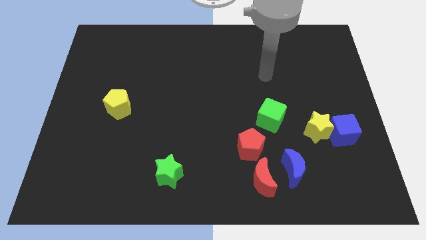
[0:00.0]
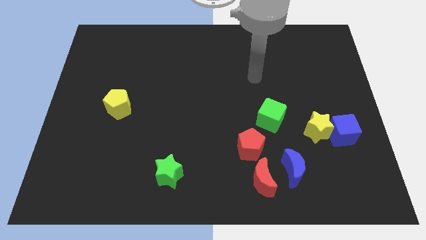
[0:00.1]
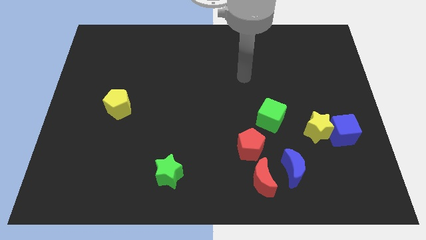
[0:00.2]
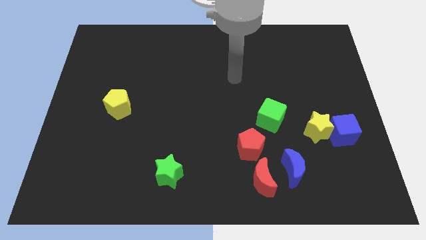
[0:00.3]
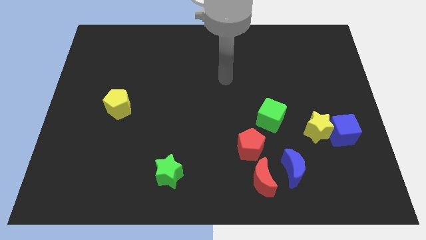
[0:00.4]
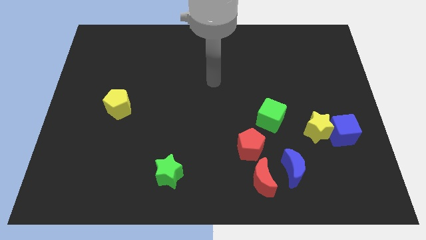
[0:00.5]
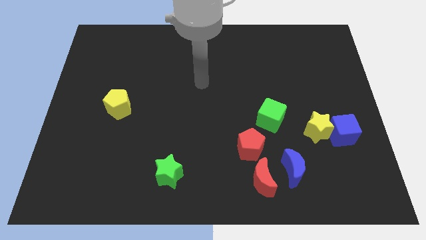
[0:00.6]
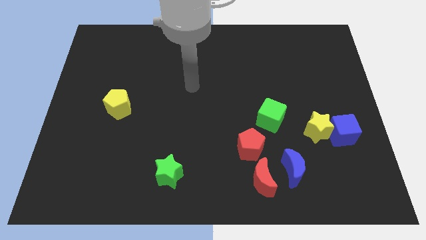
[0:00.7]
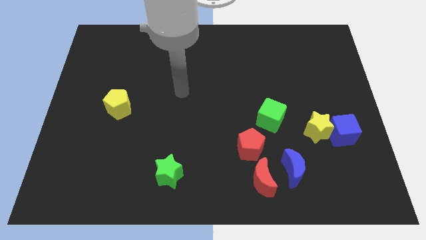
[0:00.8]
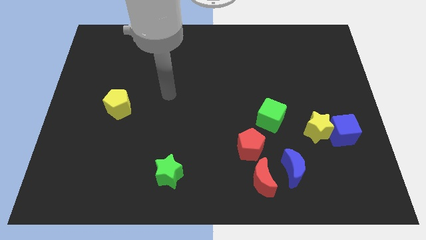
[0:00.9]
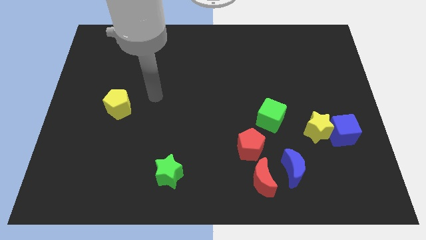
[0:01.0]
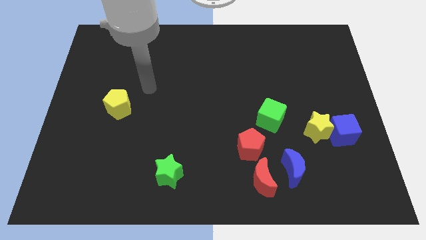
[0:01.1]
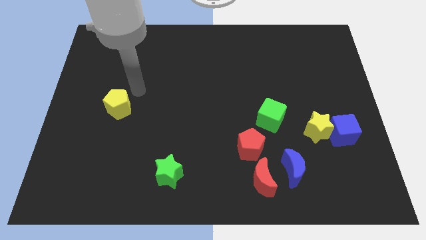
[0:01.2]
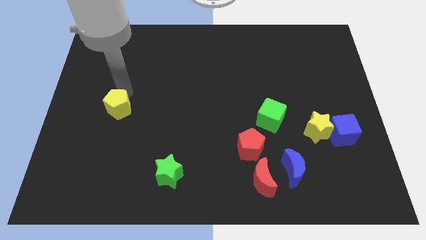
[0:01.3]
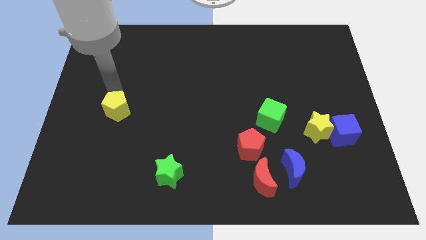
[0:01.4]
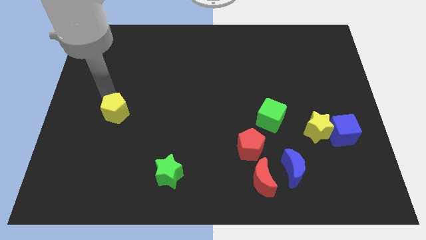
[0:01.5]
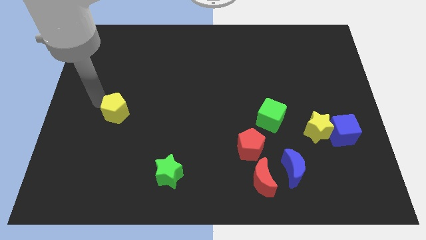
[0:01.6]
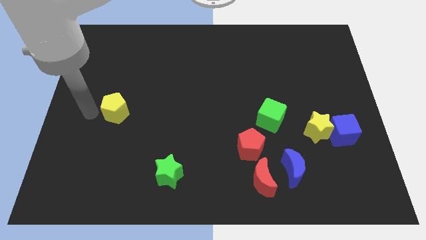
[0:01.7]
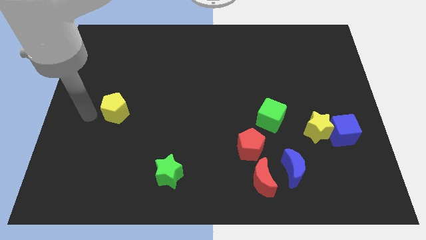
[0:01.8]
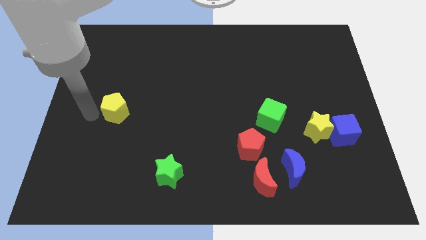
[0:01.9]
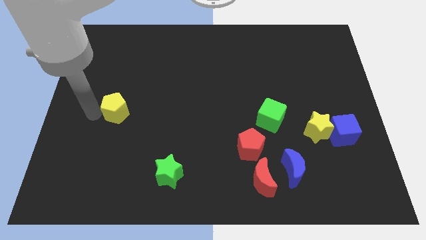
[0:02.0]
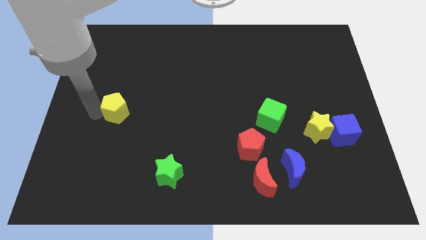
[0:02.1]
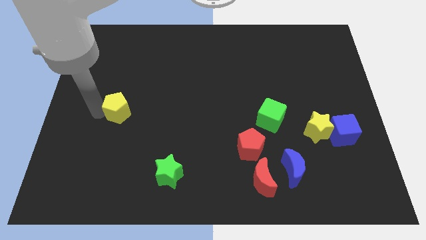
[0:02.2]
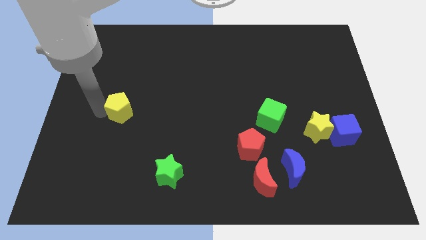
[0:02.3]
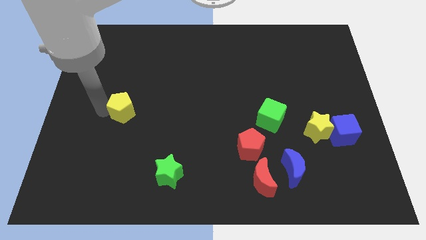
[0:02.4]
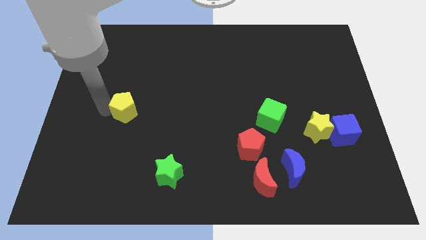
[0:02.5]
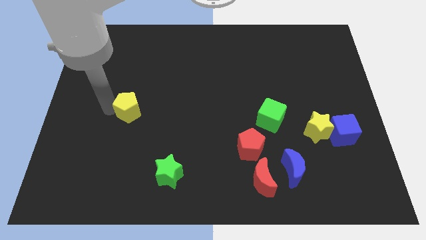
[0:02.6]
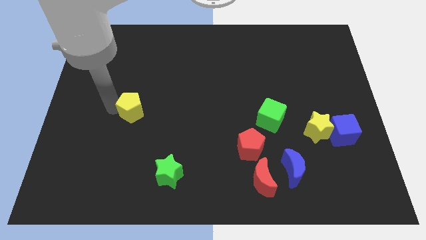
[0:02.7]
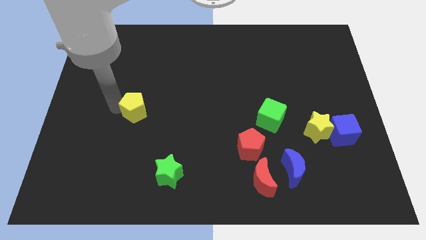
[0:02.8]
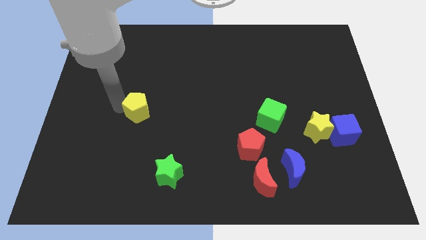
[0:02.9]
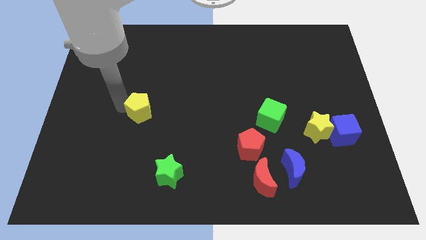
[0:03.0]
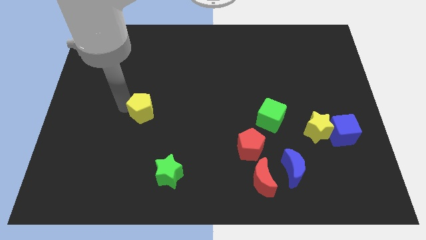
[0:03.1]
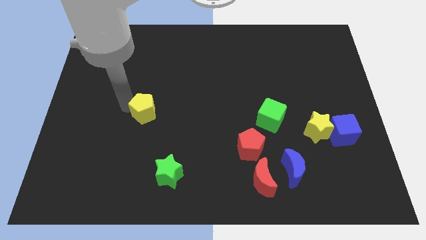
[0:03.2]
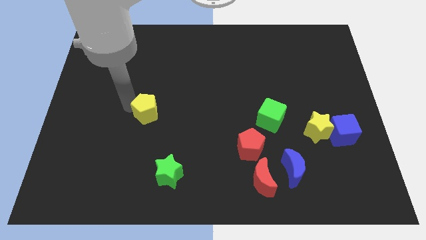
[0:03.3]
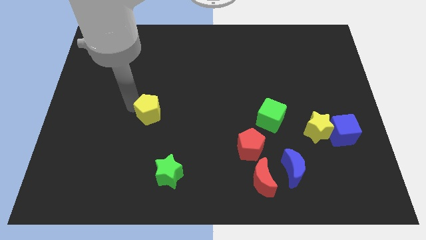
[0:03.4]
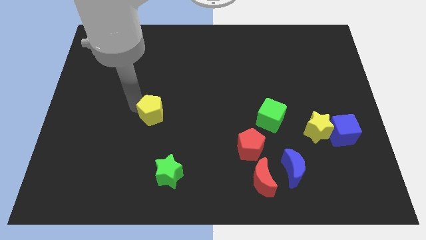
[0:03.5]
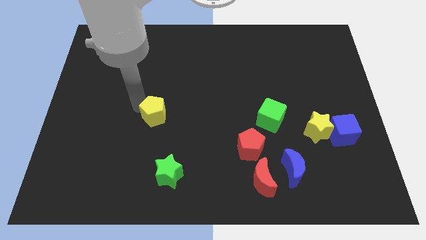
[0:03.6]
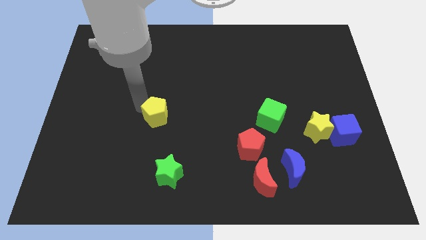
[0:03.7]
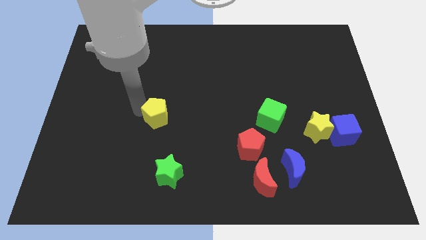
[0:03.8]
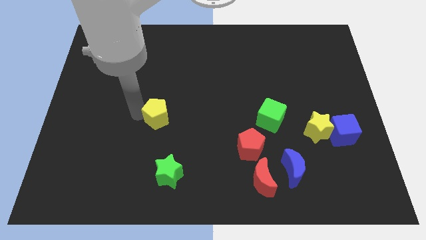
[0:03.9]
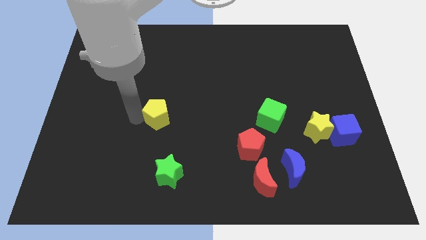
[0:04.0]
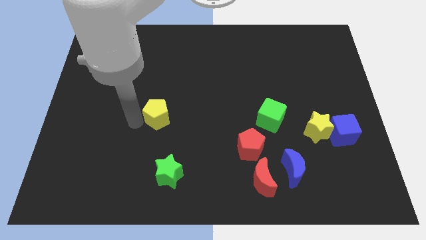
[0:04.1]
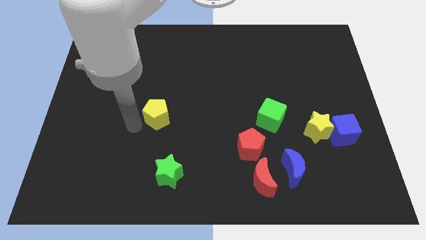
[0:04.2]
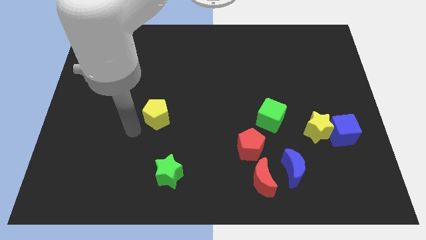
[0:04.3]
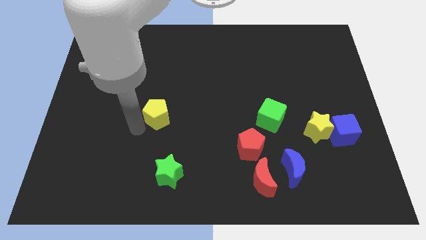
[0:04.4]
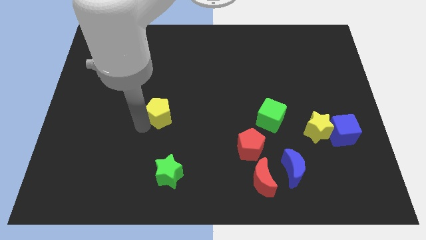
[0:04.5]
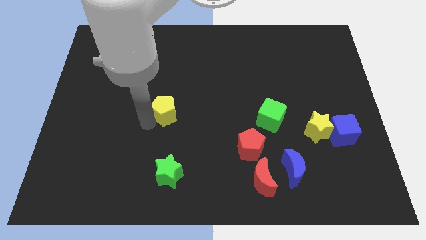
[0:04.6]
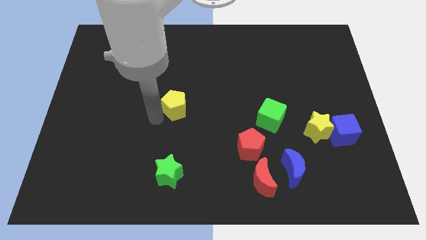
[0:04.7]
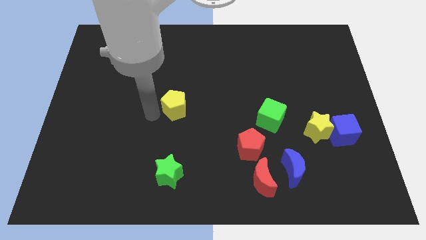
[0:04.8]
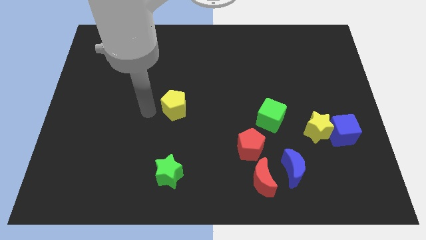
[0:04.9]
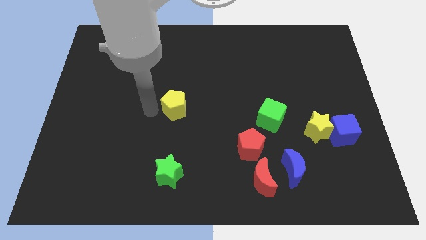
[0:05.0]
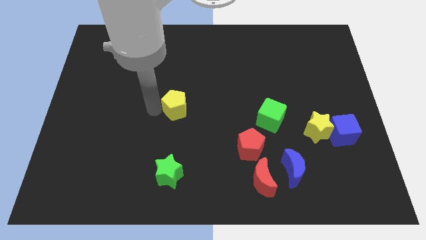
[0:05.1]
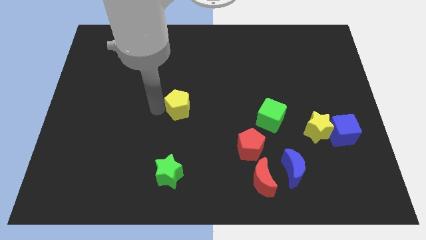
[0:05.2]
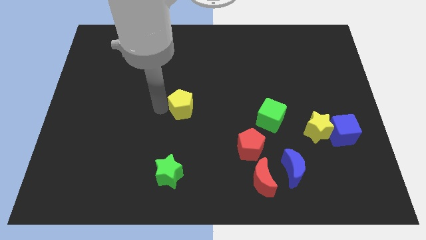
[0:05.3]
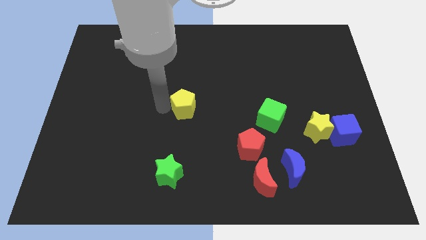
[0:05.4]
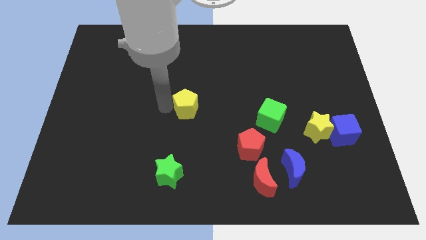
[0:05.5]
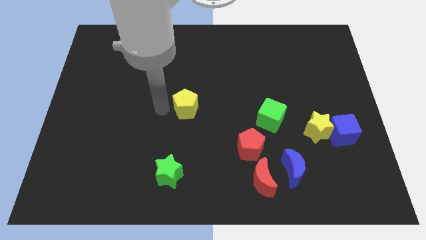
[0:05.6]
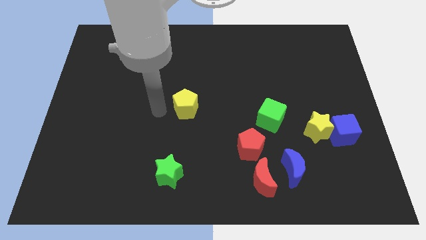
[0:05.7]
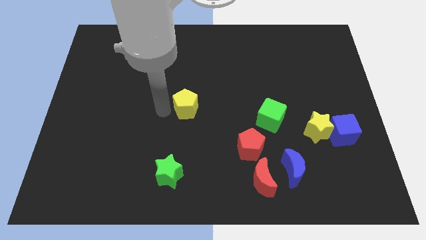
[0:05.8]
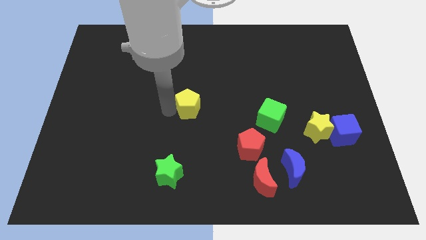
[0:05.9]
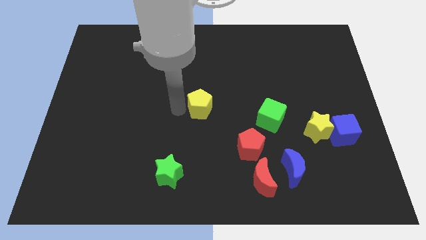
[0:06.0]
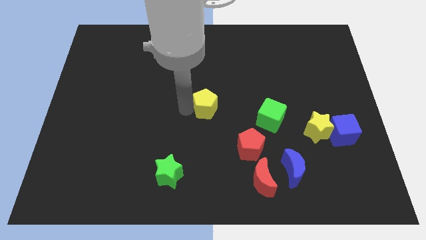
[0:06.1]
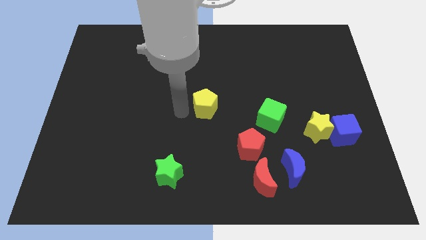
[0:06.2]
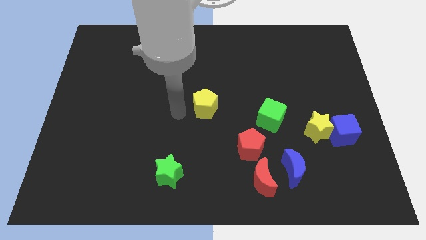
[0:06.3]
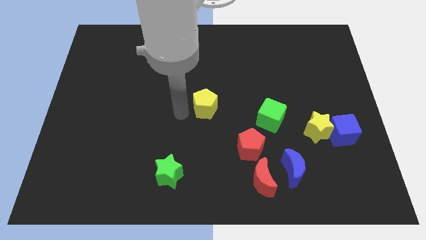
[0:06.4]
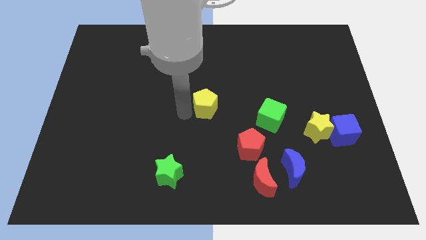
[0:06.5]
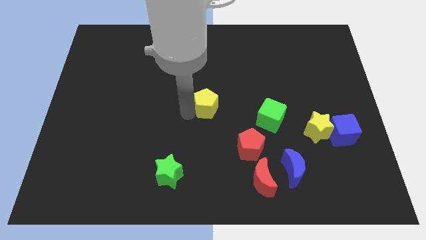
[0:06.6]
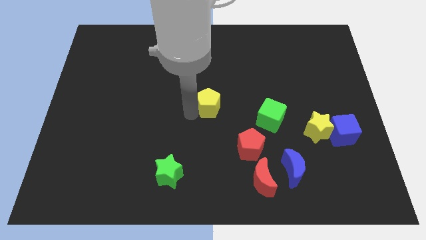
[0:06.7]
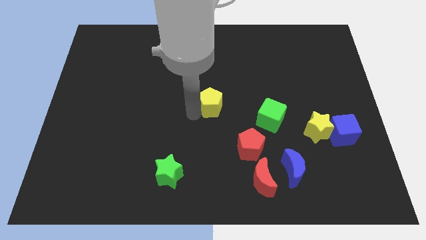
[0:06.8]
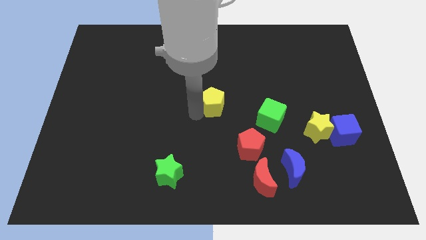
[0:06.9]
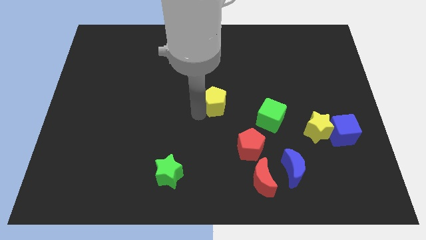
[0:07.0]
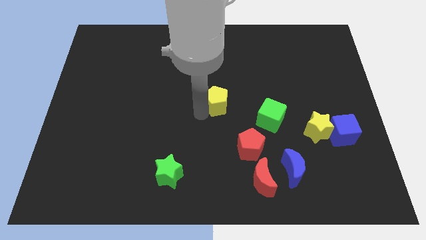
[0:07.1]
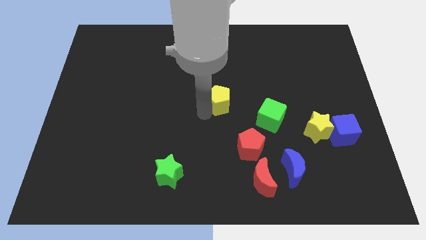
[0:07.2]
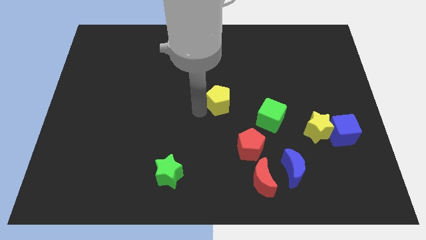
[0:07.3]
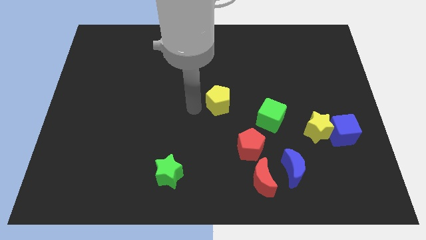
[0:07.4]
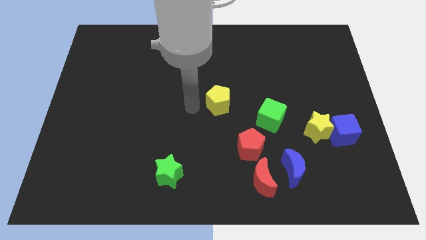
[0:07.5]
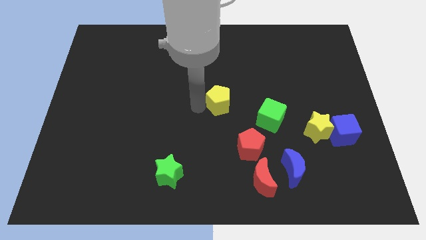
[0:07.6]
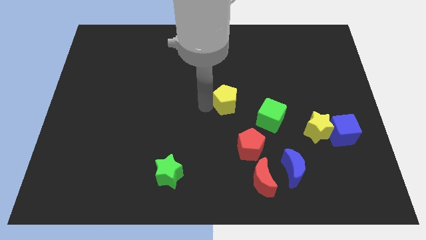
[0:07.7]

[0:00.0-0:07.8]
move the yellow pentagon to the top left side of the green cube
